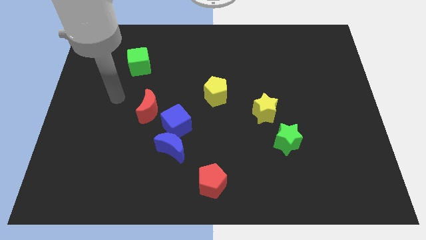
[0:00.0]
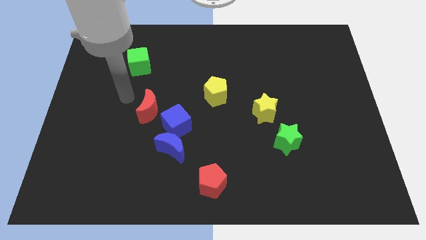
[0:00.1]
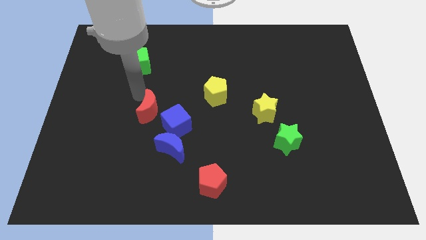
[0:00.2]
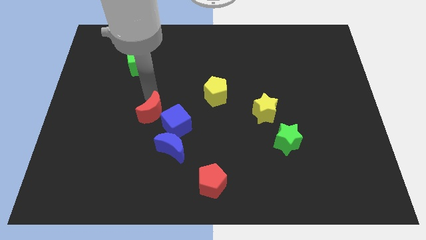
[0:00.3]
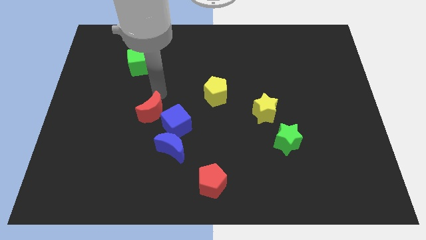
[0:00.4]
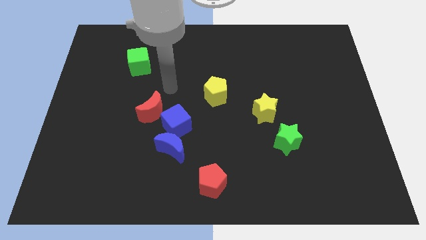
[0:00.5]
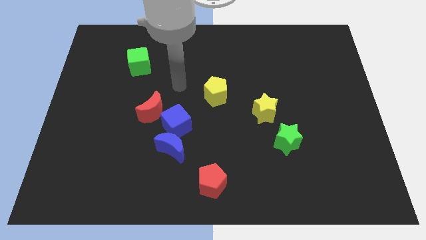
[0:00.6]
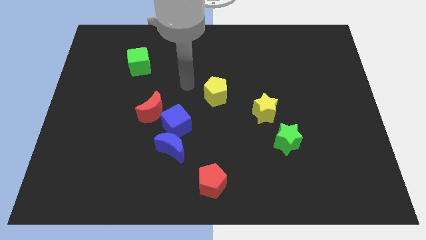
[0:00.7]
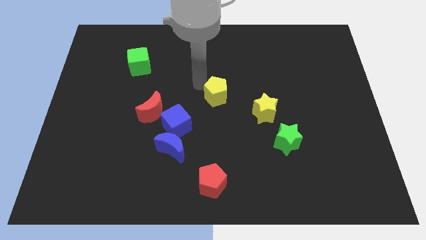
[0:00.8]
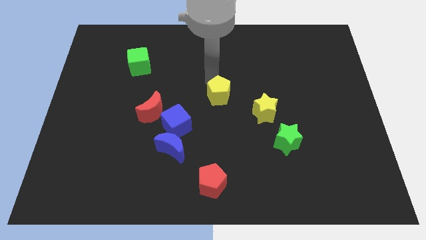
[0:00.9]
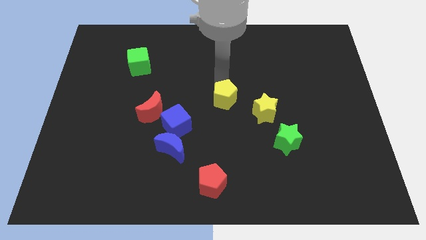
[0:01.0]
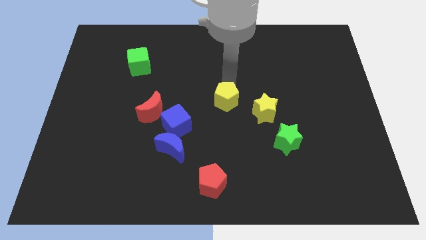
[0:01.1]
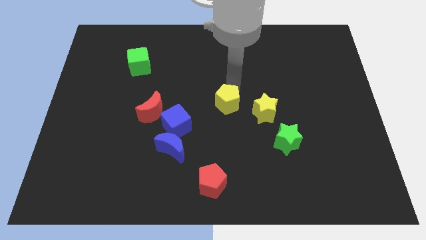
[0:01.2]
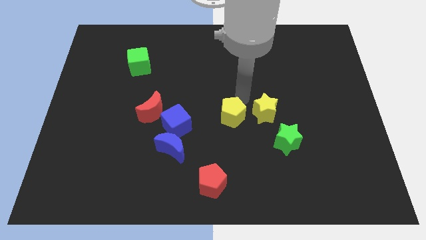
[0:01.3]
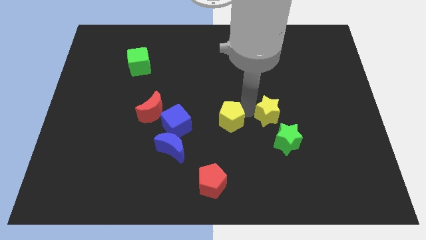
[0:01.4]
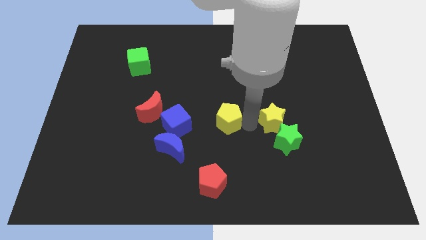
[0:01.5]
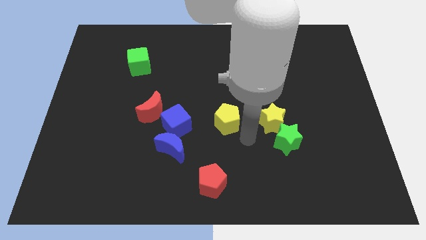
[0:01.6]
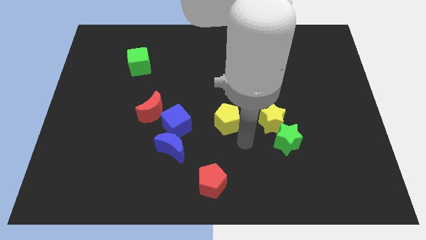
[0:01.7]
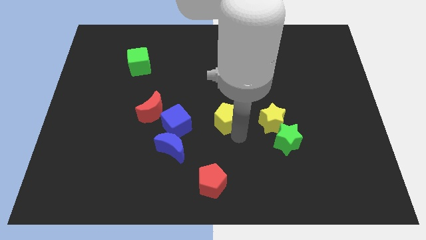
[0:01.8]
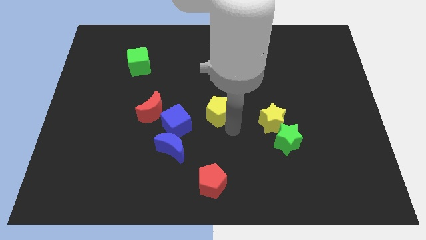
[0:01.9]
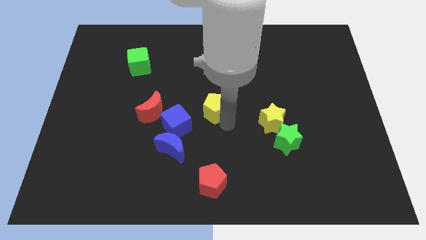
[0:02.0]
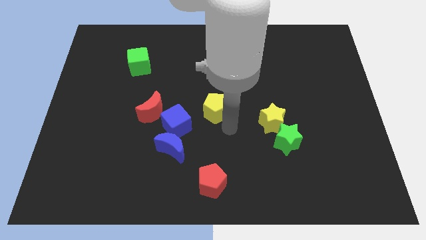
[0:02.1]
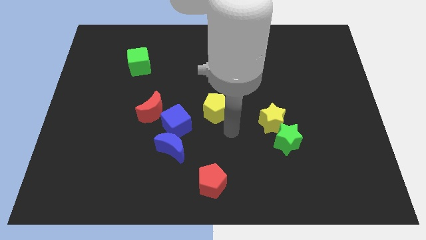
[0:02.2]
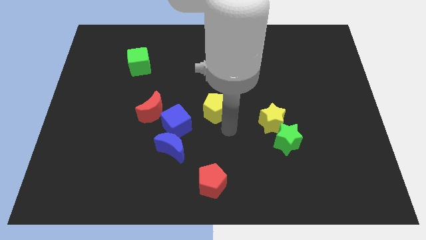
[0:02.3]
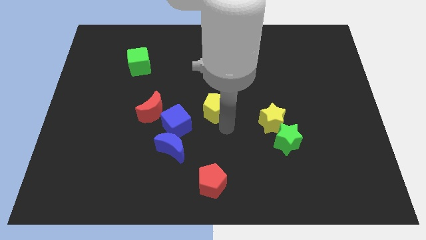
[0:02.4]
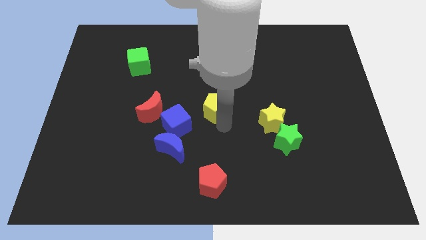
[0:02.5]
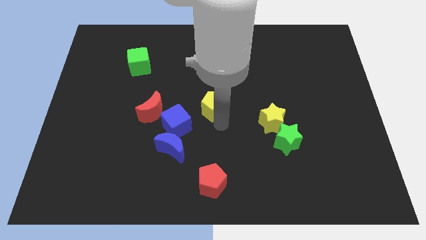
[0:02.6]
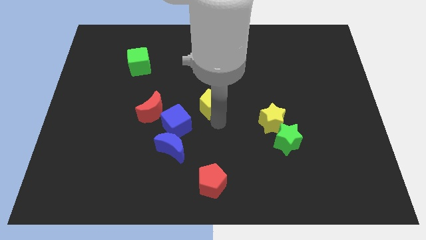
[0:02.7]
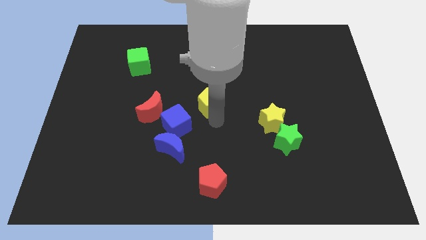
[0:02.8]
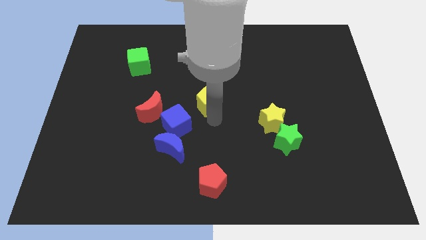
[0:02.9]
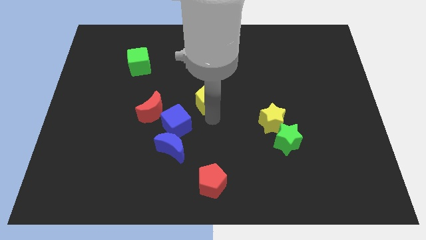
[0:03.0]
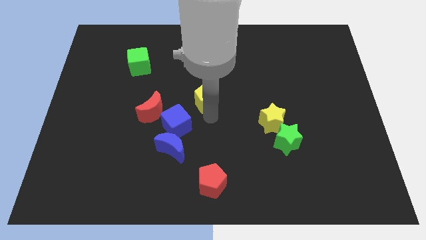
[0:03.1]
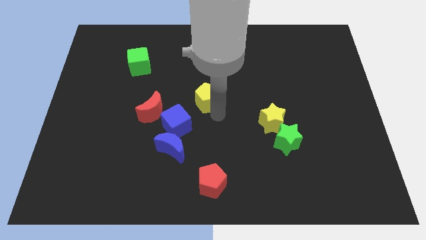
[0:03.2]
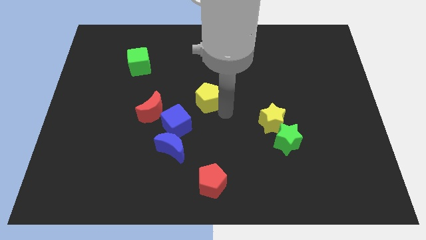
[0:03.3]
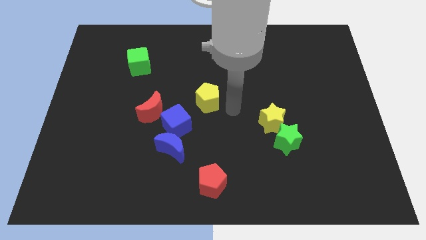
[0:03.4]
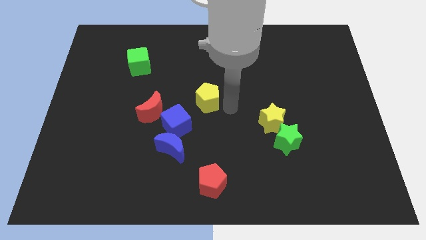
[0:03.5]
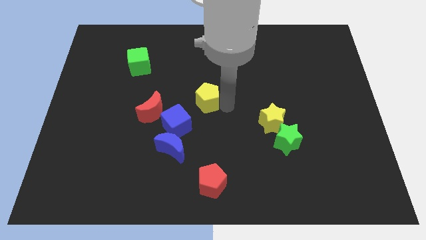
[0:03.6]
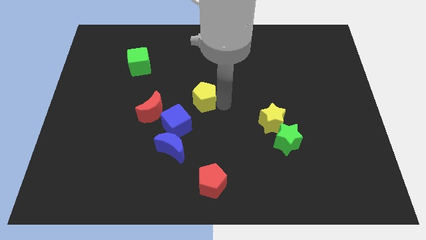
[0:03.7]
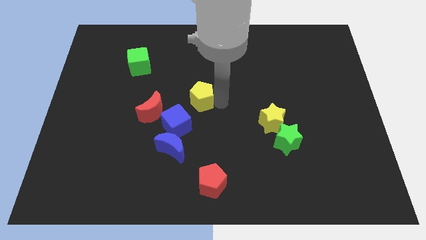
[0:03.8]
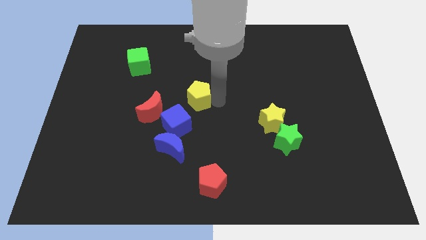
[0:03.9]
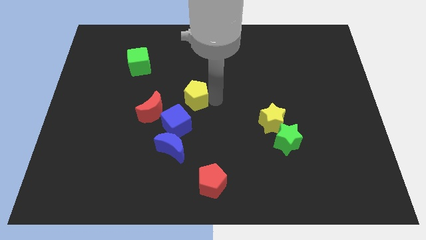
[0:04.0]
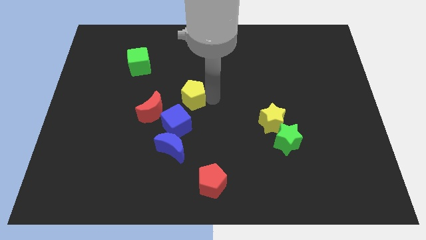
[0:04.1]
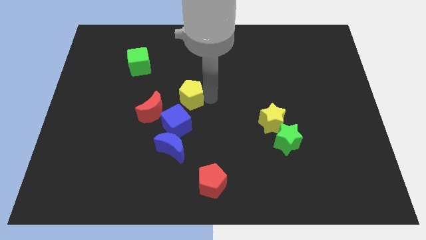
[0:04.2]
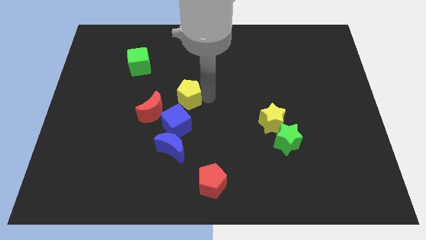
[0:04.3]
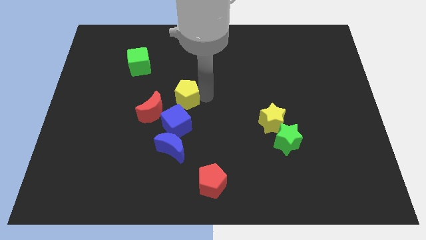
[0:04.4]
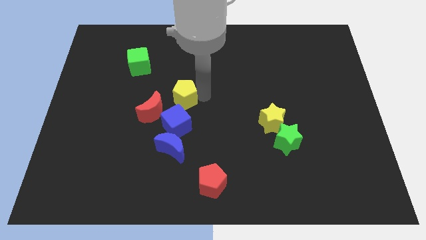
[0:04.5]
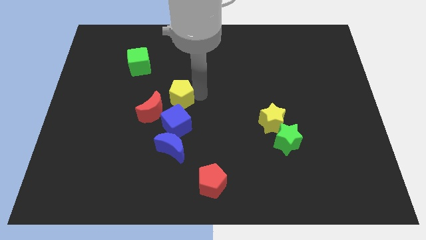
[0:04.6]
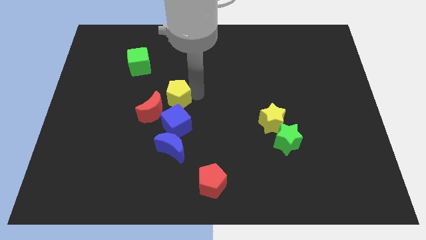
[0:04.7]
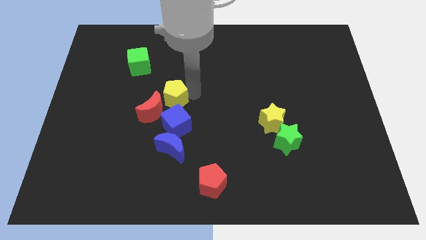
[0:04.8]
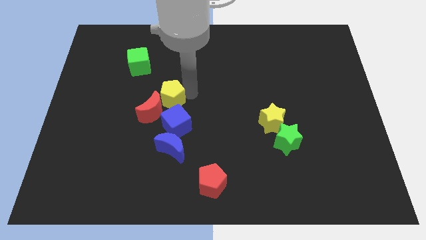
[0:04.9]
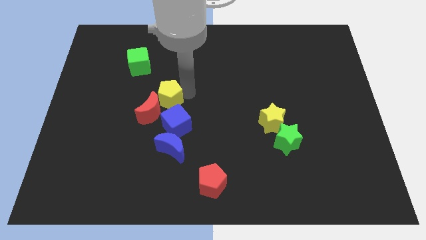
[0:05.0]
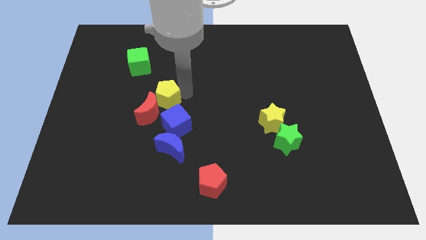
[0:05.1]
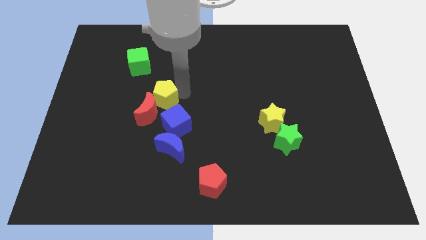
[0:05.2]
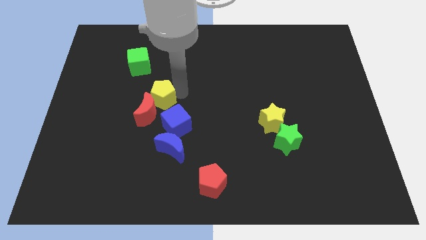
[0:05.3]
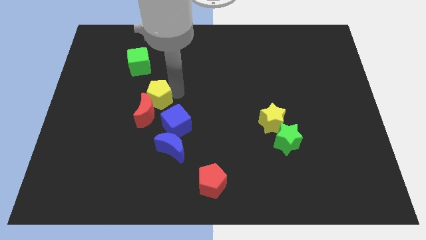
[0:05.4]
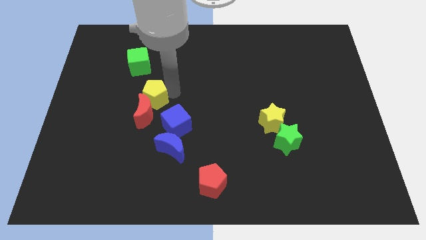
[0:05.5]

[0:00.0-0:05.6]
push the yellow pentagon diagonally up and to the left of the red moon

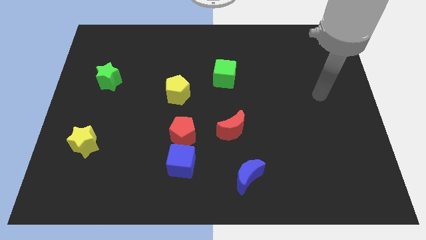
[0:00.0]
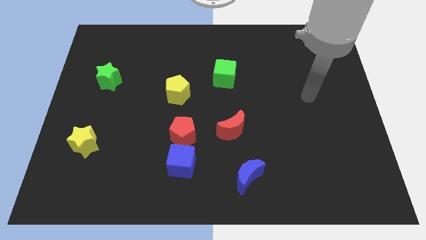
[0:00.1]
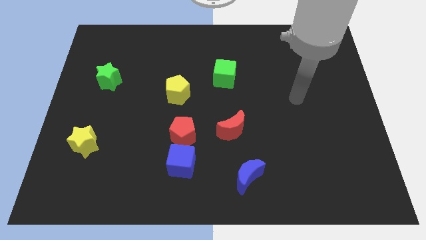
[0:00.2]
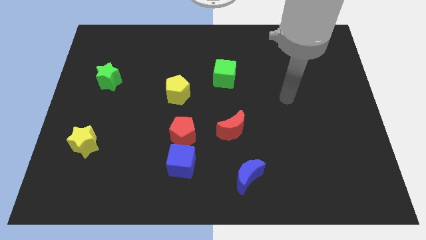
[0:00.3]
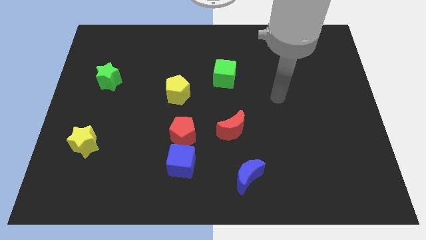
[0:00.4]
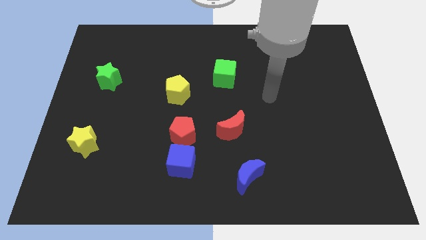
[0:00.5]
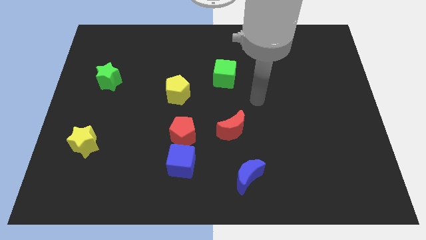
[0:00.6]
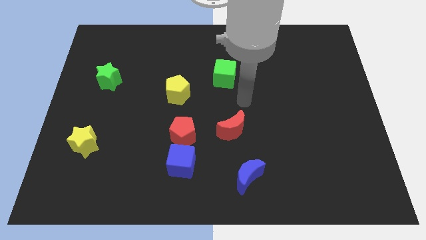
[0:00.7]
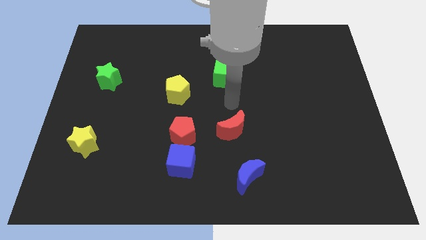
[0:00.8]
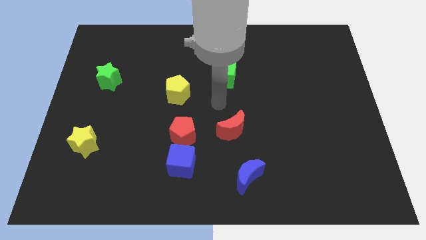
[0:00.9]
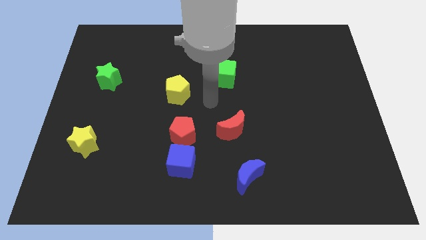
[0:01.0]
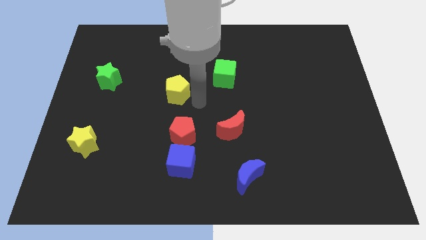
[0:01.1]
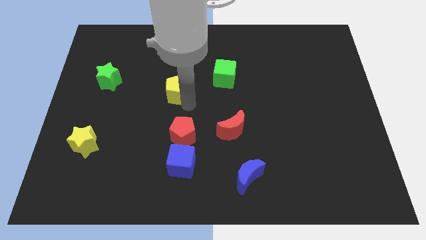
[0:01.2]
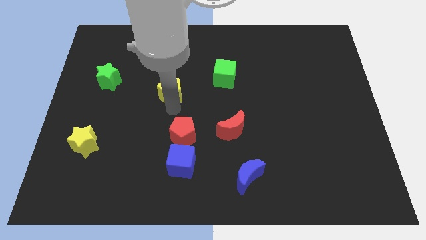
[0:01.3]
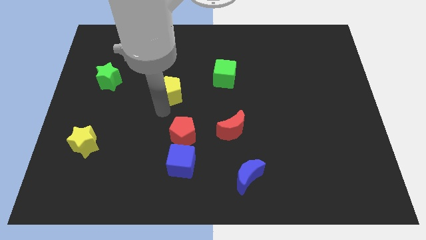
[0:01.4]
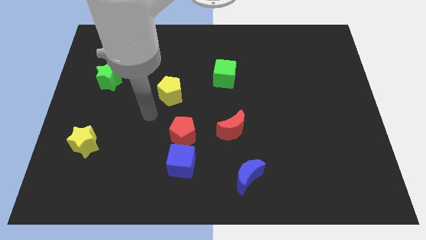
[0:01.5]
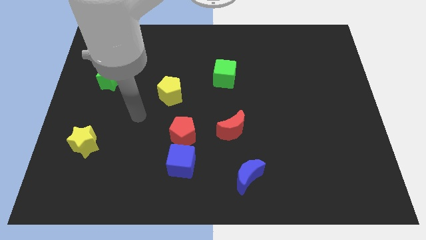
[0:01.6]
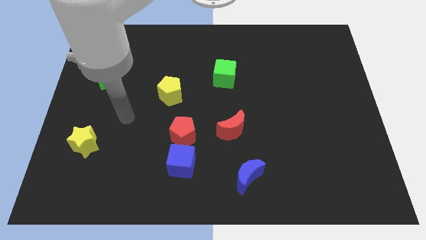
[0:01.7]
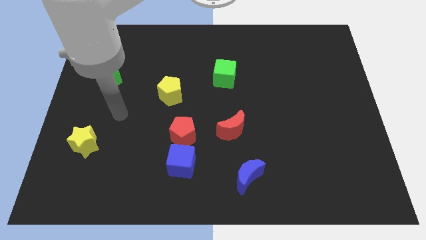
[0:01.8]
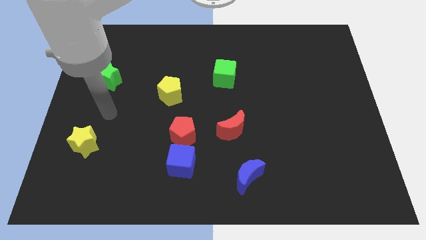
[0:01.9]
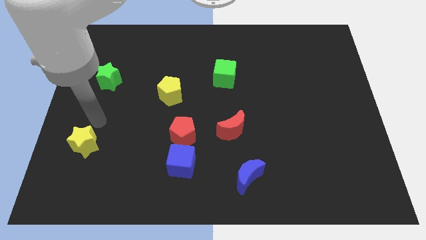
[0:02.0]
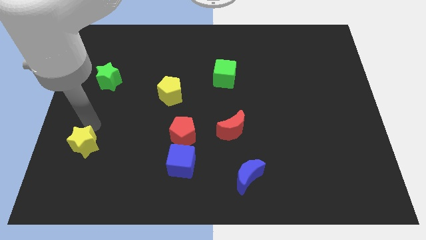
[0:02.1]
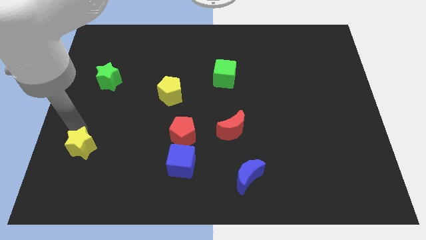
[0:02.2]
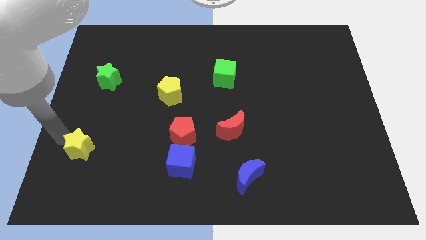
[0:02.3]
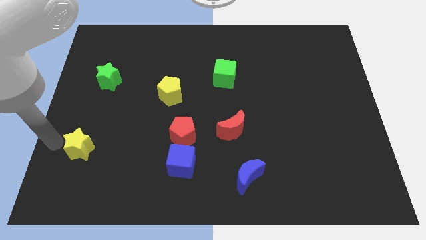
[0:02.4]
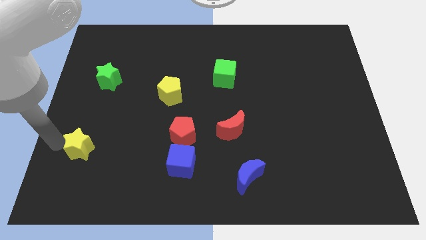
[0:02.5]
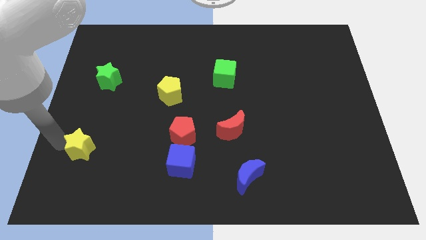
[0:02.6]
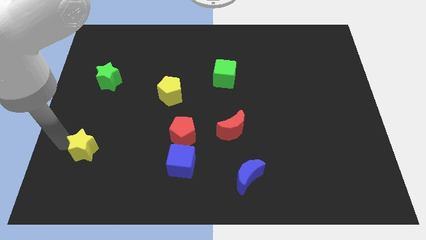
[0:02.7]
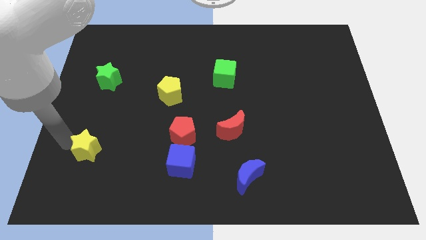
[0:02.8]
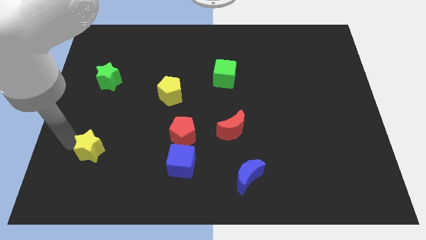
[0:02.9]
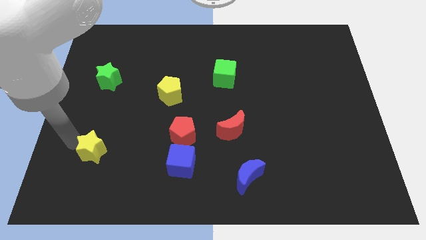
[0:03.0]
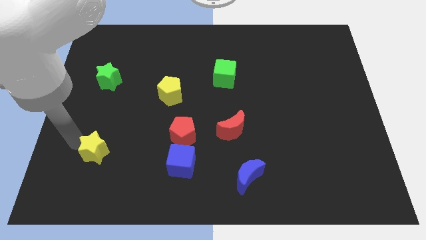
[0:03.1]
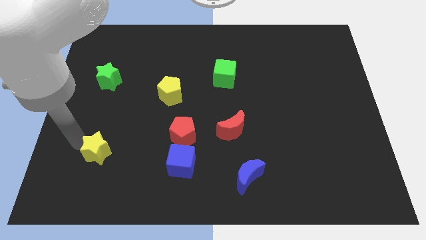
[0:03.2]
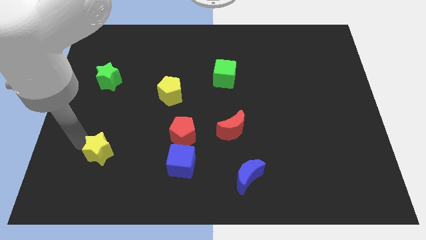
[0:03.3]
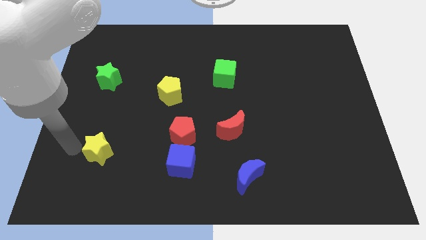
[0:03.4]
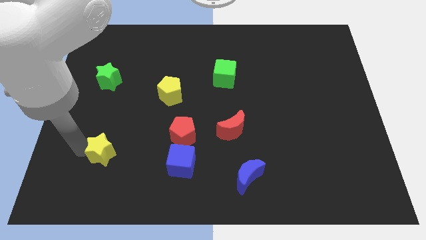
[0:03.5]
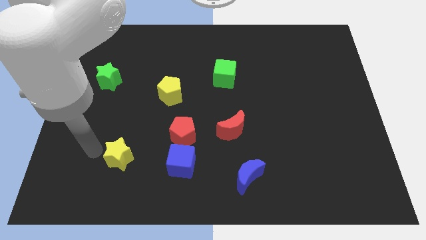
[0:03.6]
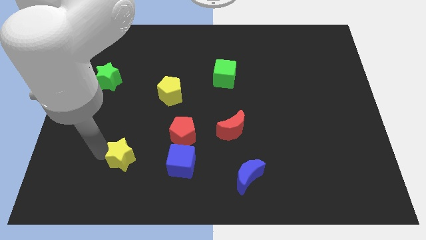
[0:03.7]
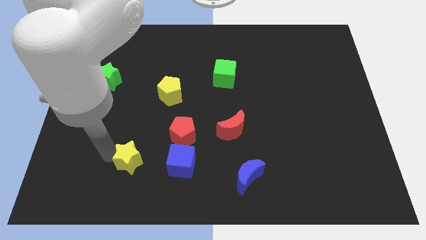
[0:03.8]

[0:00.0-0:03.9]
put the yellow star diagonally down and to the left of the red pentagon
